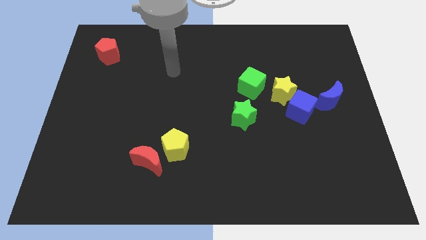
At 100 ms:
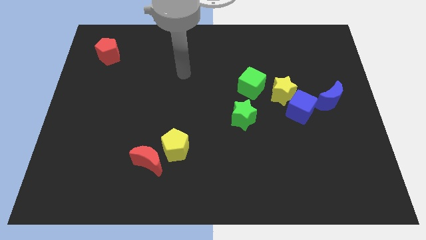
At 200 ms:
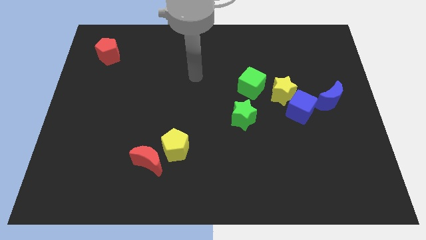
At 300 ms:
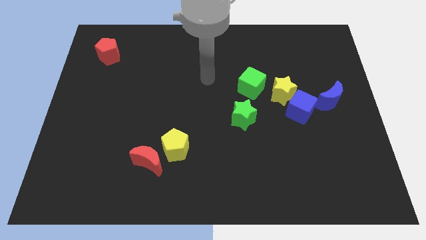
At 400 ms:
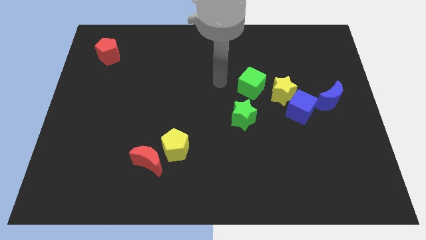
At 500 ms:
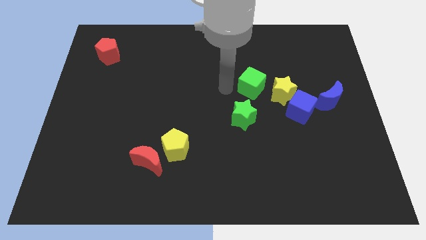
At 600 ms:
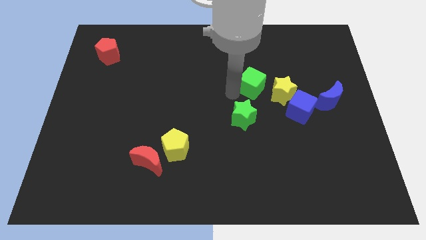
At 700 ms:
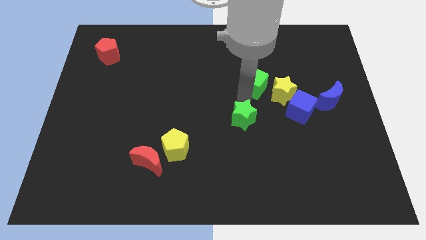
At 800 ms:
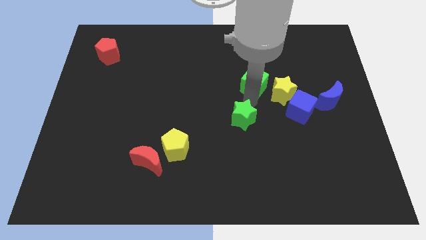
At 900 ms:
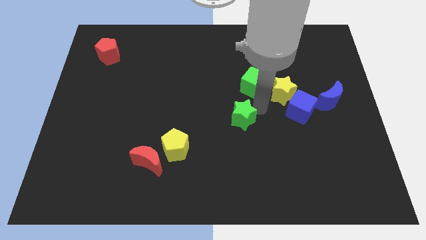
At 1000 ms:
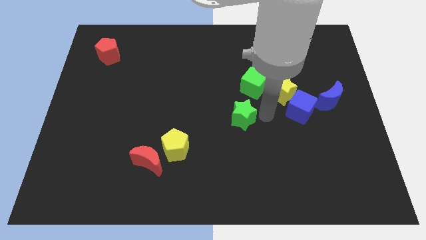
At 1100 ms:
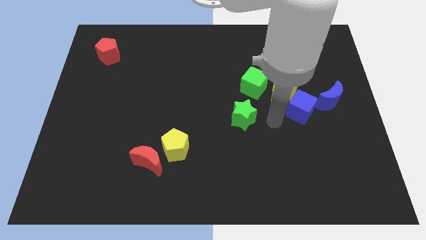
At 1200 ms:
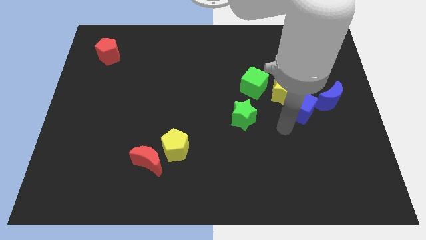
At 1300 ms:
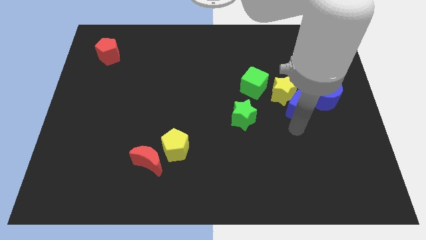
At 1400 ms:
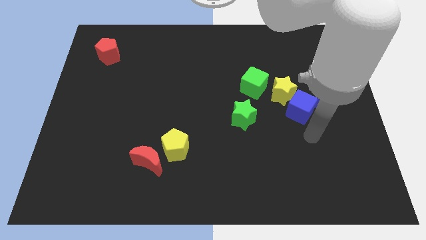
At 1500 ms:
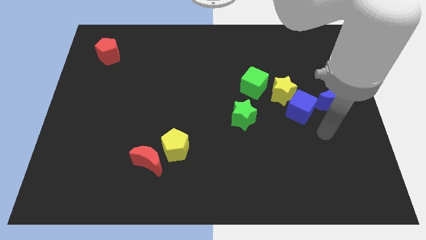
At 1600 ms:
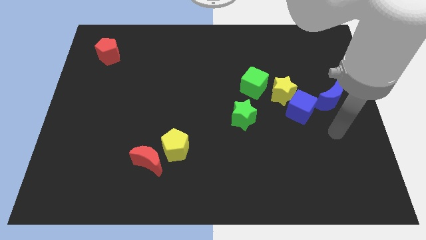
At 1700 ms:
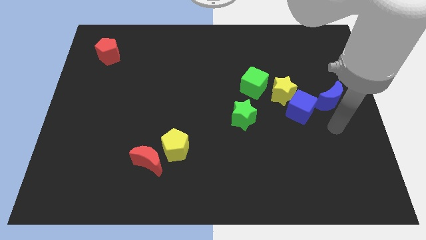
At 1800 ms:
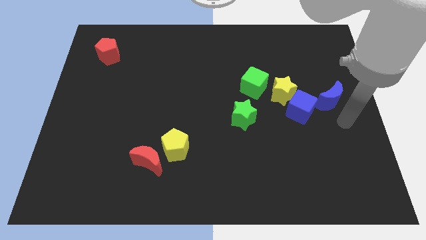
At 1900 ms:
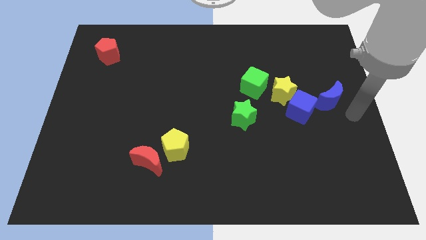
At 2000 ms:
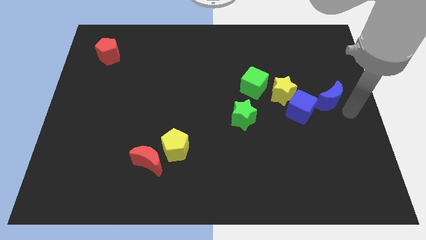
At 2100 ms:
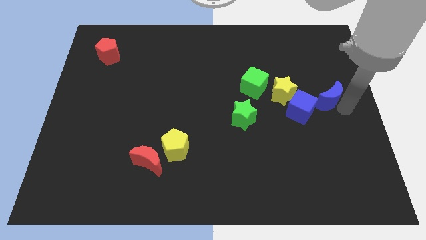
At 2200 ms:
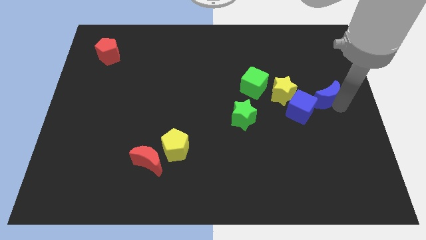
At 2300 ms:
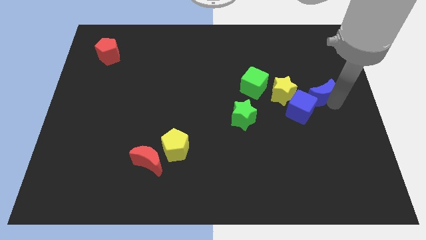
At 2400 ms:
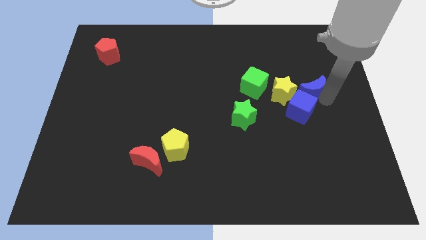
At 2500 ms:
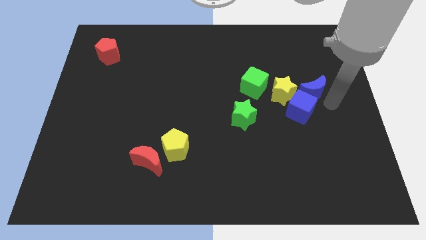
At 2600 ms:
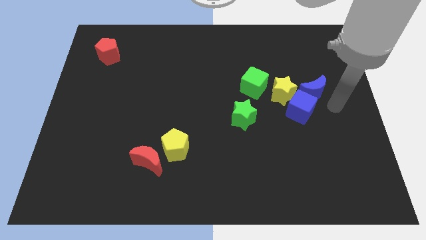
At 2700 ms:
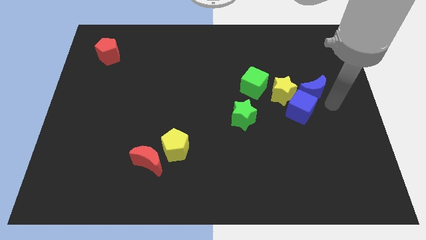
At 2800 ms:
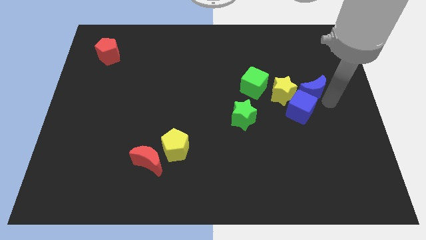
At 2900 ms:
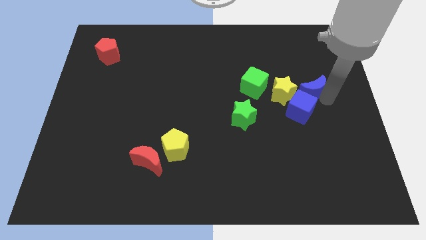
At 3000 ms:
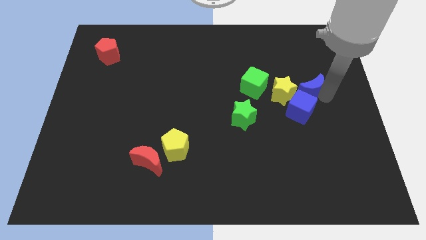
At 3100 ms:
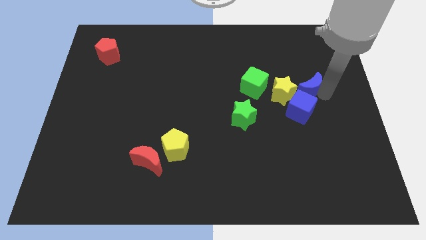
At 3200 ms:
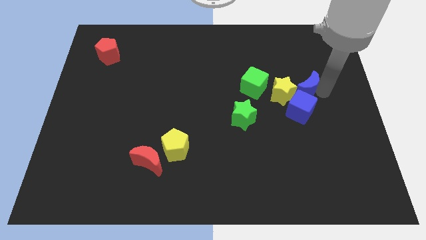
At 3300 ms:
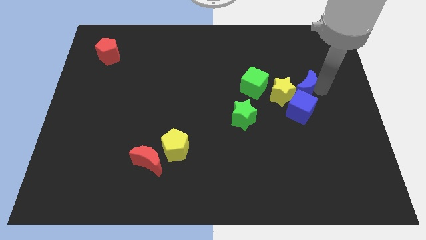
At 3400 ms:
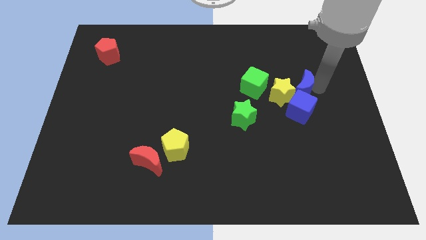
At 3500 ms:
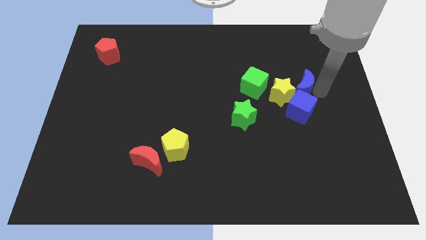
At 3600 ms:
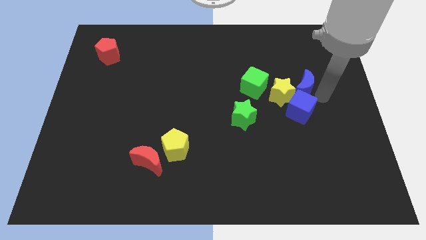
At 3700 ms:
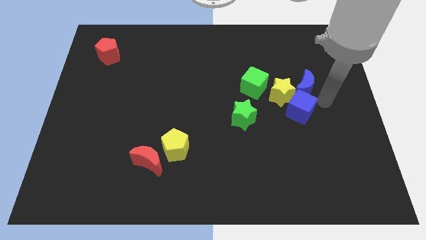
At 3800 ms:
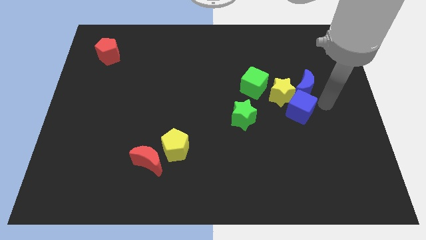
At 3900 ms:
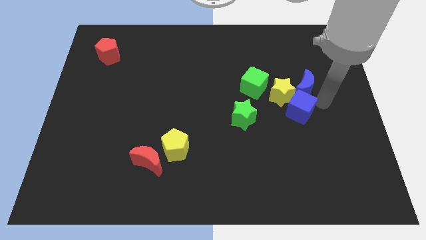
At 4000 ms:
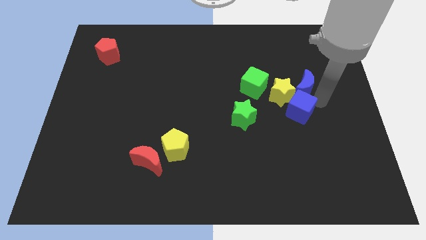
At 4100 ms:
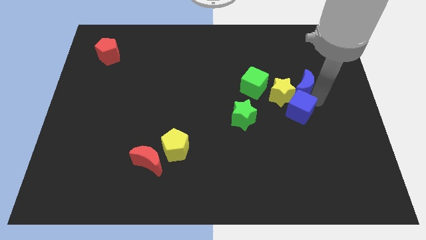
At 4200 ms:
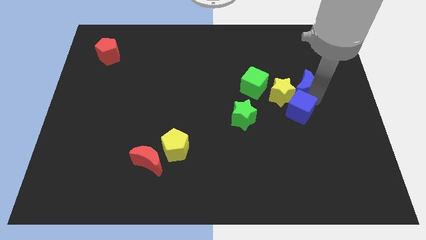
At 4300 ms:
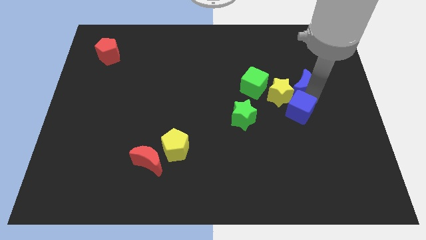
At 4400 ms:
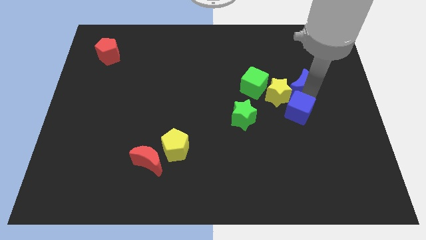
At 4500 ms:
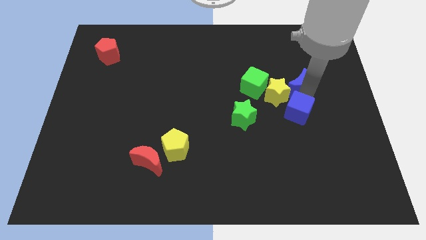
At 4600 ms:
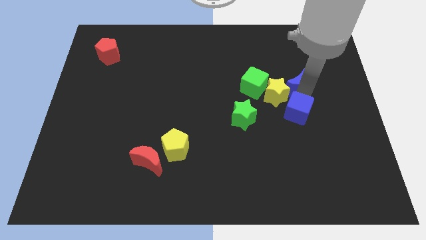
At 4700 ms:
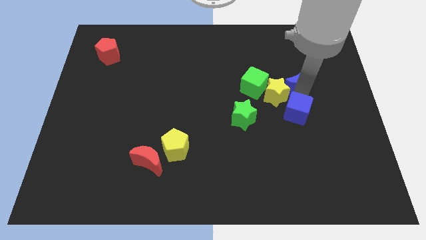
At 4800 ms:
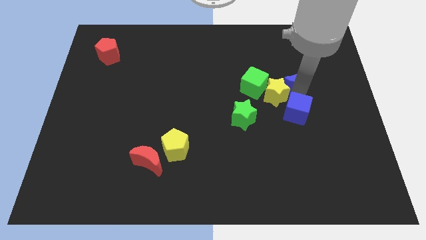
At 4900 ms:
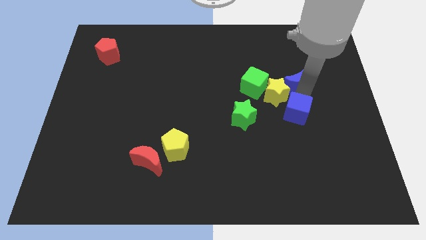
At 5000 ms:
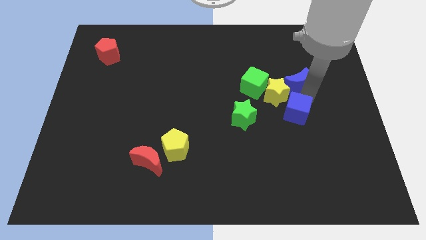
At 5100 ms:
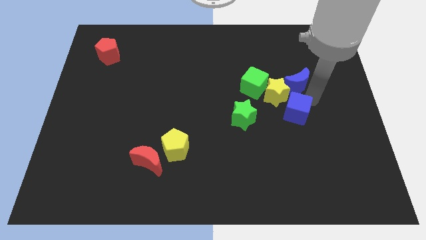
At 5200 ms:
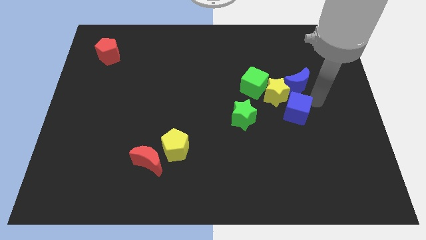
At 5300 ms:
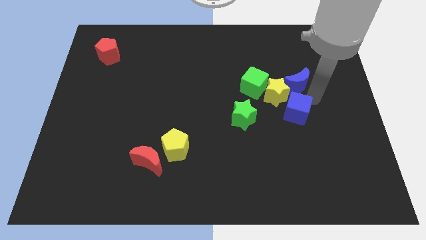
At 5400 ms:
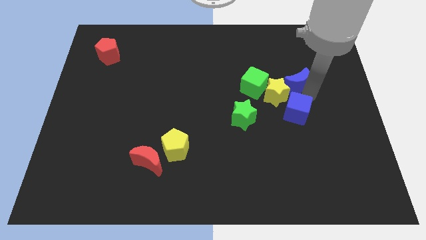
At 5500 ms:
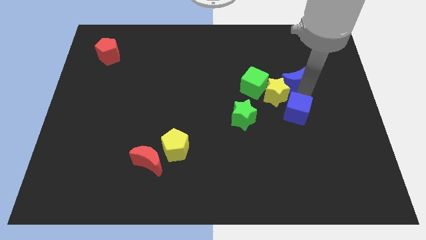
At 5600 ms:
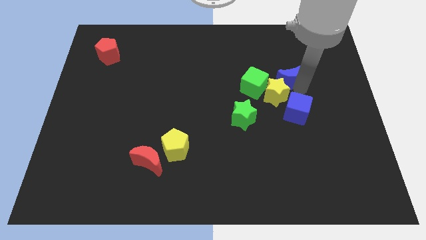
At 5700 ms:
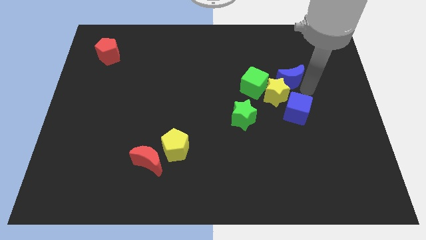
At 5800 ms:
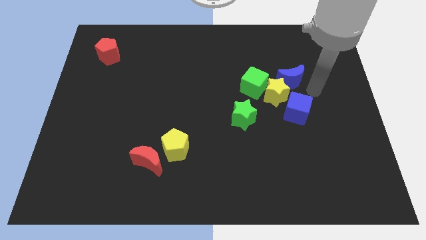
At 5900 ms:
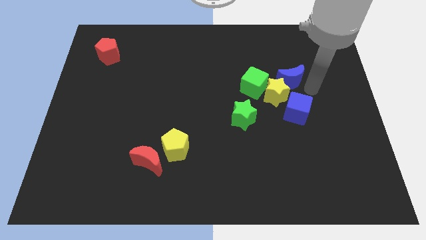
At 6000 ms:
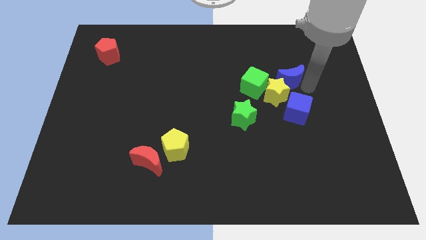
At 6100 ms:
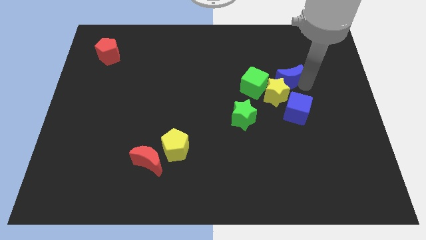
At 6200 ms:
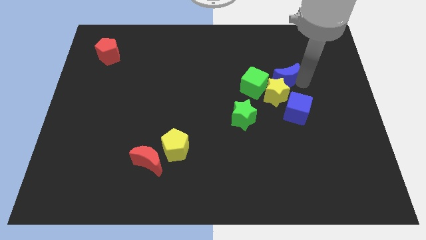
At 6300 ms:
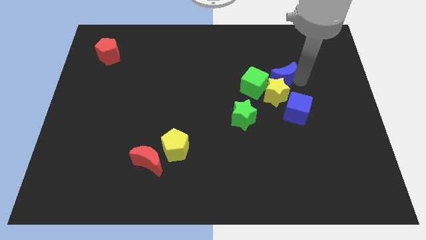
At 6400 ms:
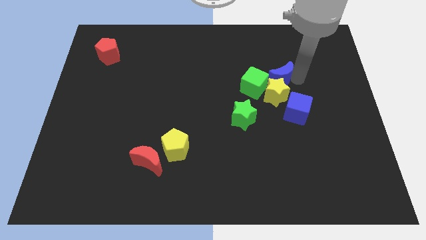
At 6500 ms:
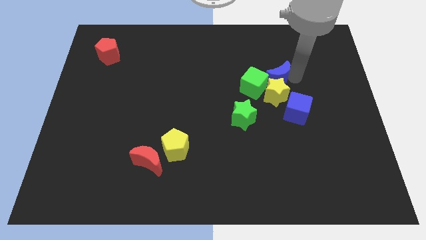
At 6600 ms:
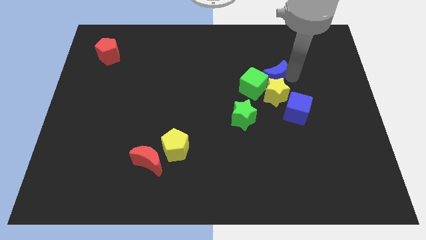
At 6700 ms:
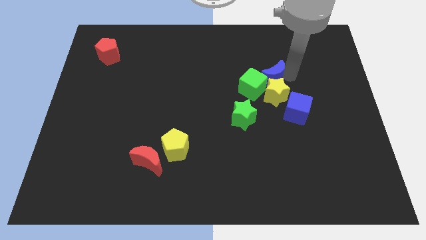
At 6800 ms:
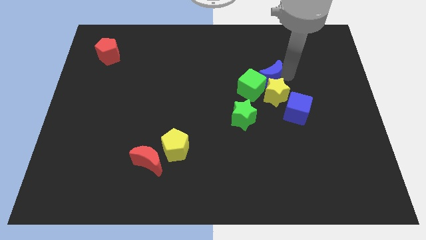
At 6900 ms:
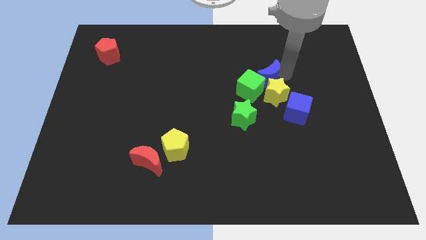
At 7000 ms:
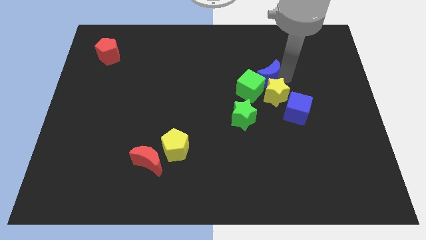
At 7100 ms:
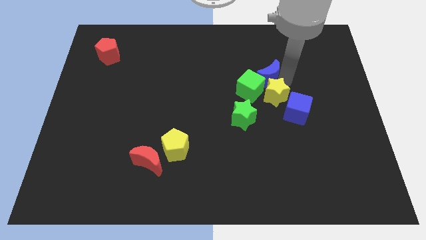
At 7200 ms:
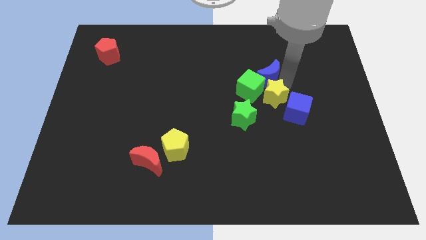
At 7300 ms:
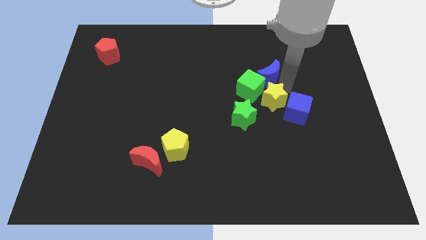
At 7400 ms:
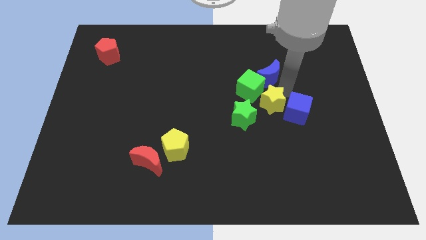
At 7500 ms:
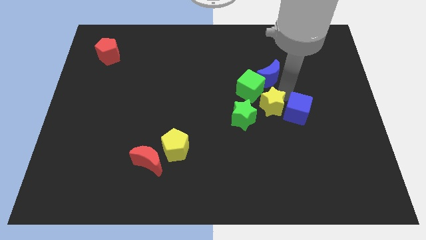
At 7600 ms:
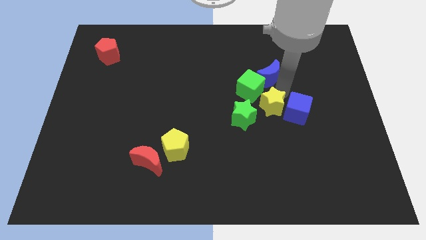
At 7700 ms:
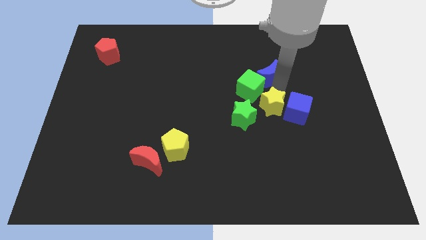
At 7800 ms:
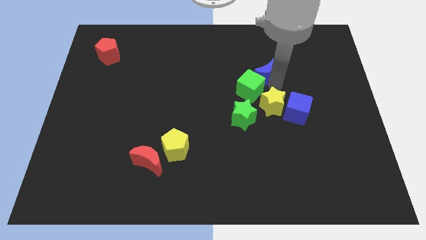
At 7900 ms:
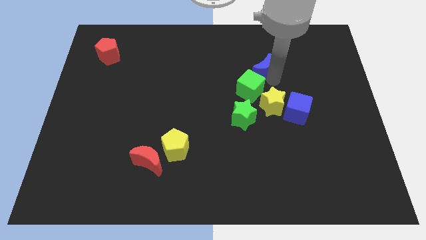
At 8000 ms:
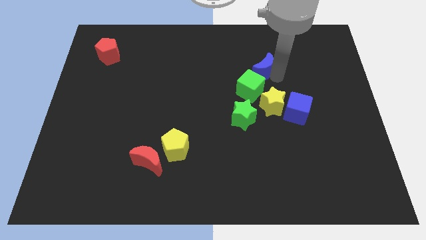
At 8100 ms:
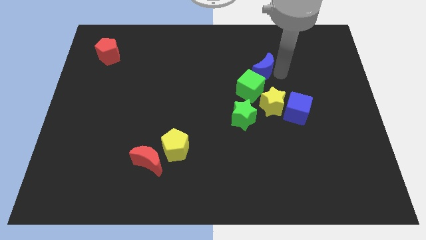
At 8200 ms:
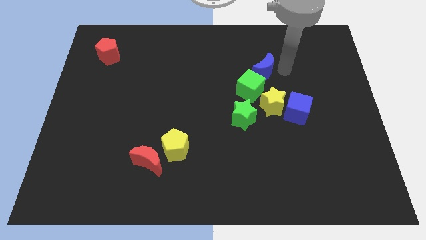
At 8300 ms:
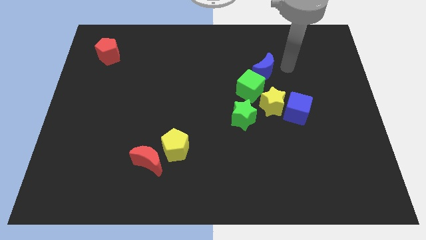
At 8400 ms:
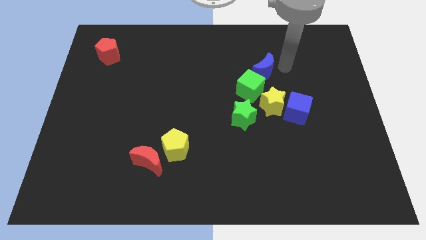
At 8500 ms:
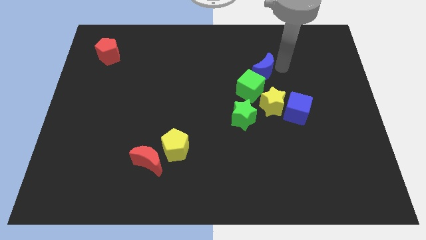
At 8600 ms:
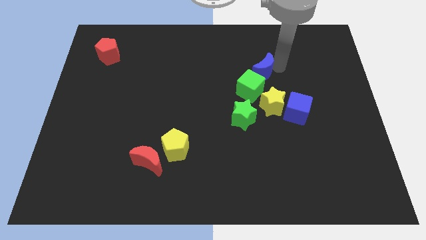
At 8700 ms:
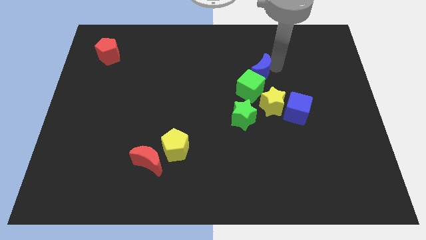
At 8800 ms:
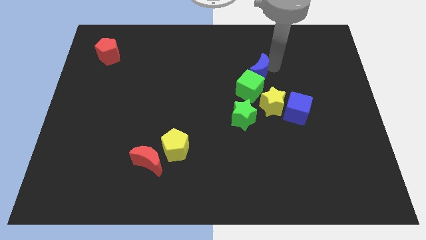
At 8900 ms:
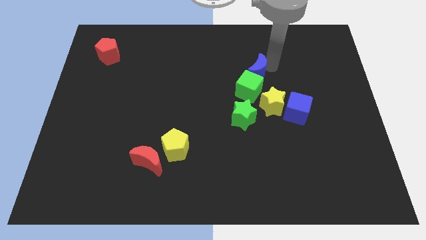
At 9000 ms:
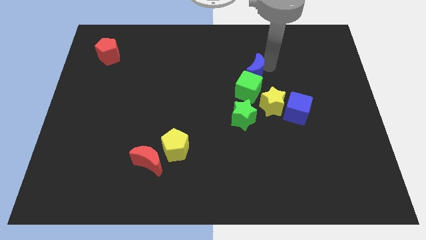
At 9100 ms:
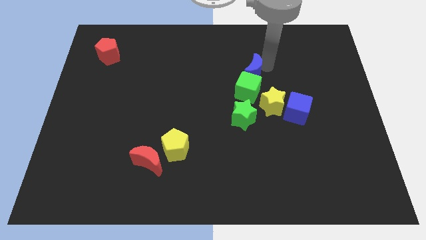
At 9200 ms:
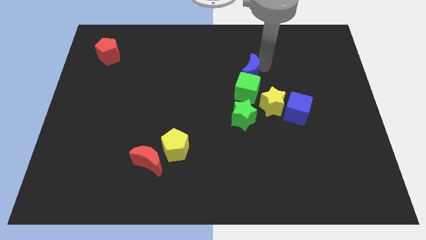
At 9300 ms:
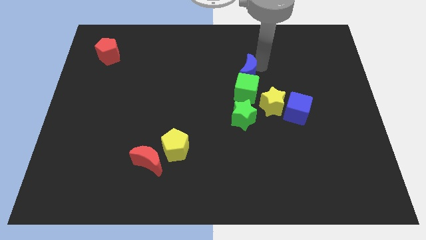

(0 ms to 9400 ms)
put the blue moon to the center
